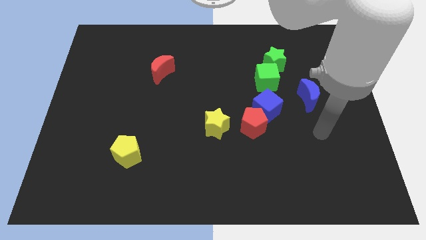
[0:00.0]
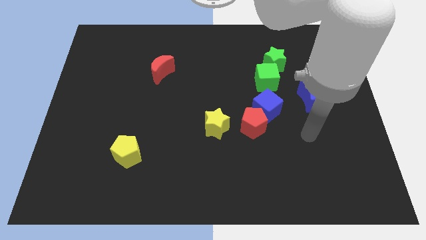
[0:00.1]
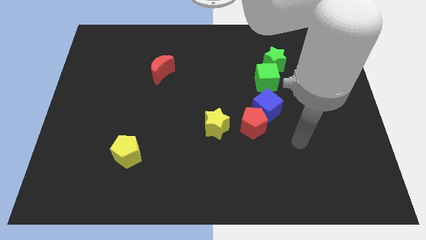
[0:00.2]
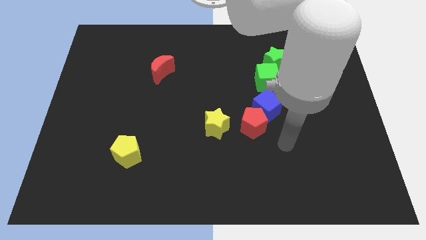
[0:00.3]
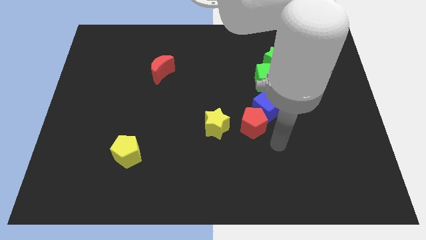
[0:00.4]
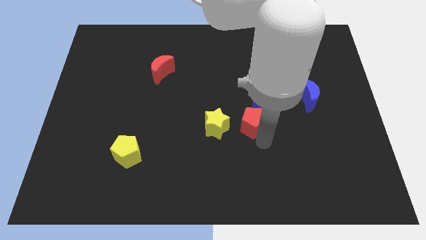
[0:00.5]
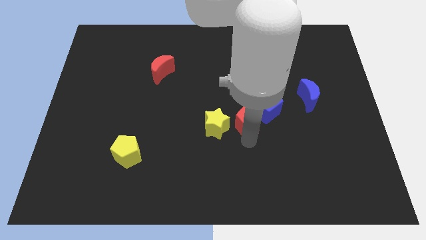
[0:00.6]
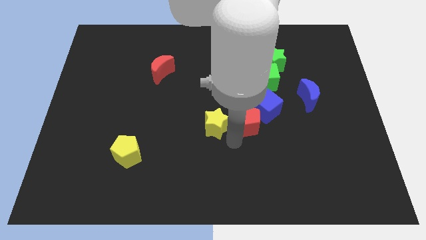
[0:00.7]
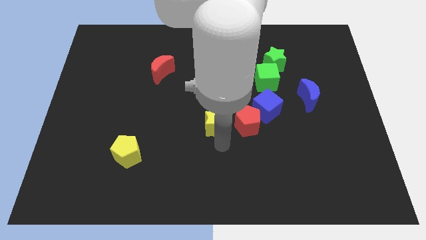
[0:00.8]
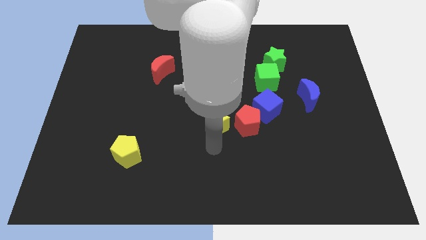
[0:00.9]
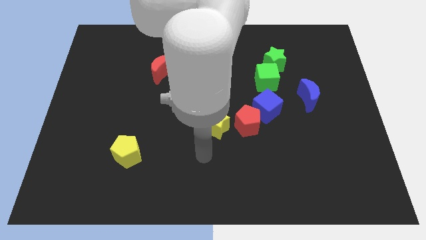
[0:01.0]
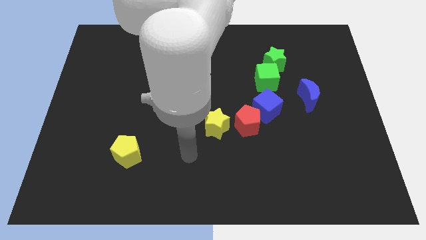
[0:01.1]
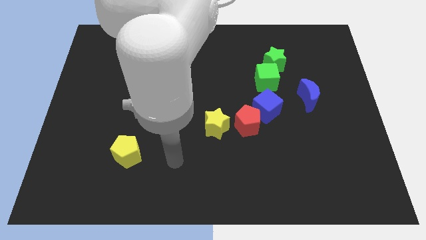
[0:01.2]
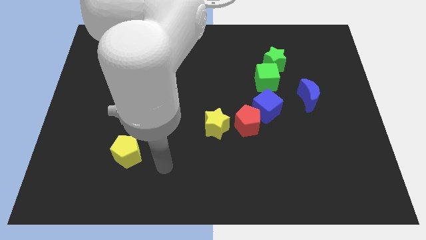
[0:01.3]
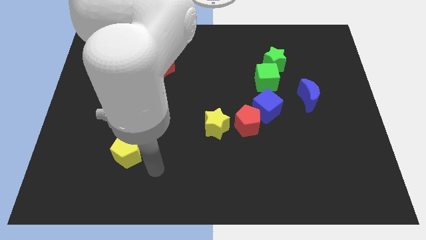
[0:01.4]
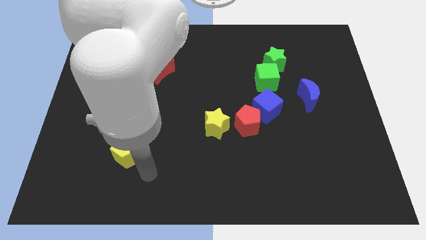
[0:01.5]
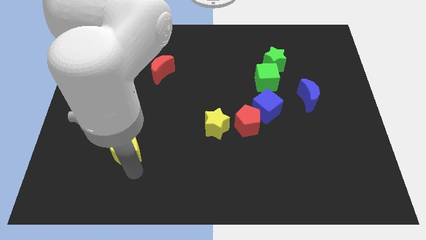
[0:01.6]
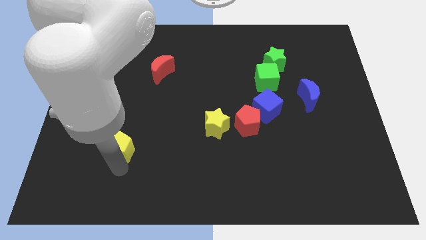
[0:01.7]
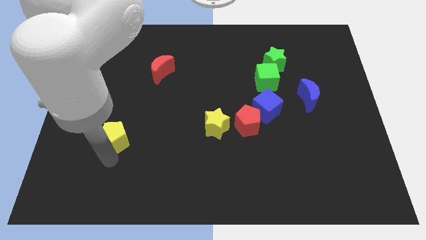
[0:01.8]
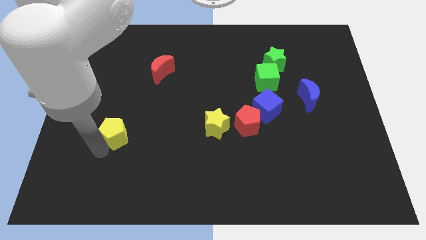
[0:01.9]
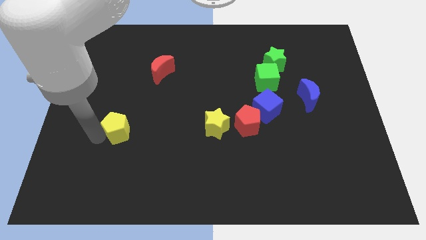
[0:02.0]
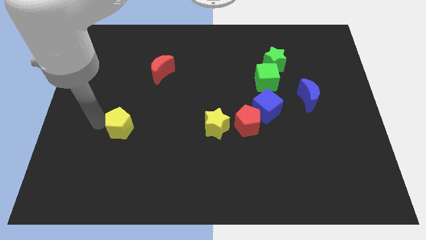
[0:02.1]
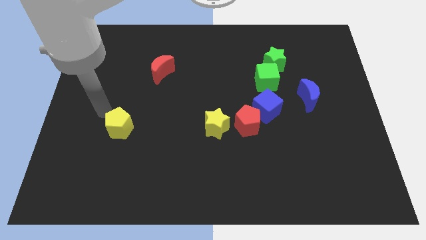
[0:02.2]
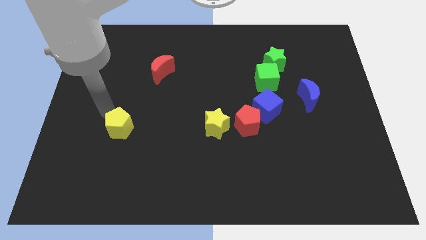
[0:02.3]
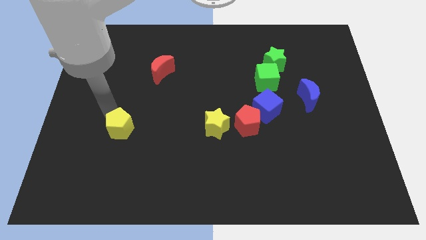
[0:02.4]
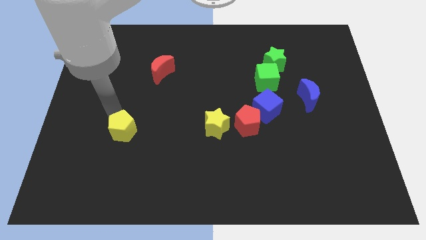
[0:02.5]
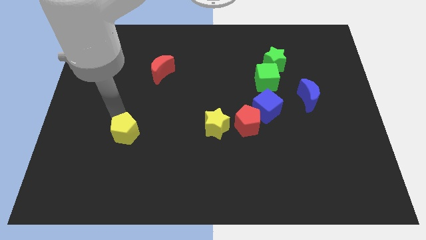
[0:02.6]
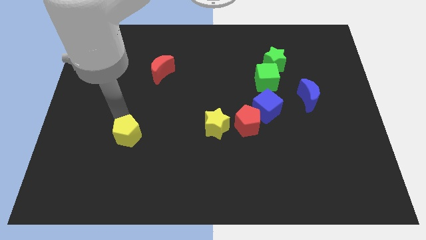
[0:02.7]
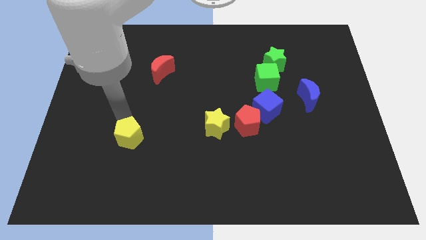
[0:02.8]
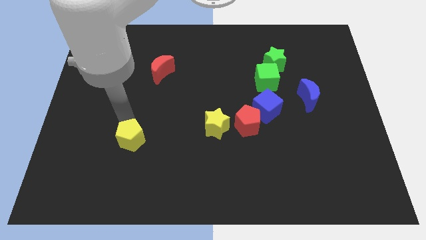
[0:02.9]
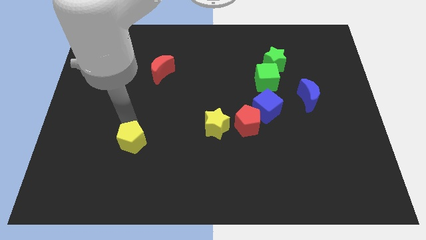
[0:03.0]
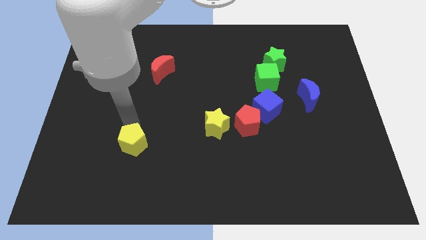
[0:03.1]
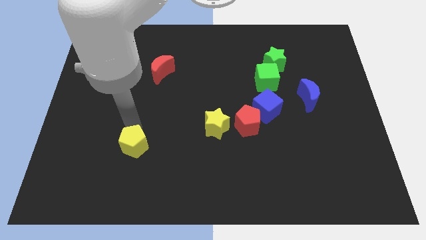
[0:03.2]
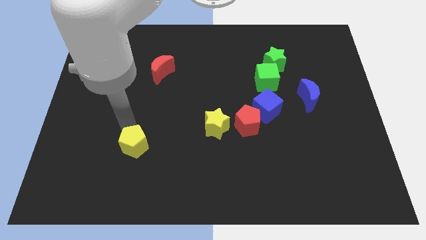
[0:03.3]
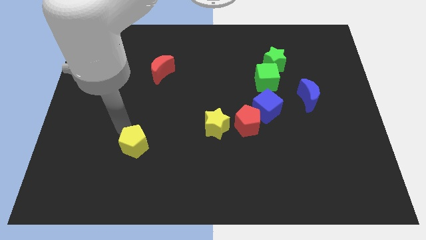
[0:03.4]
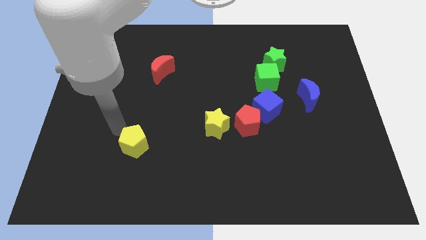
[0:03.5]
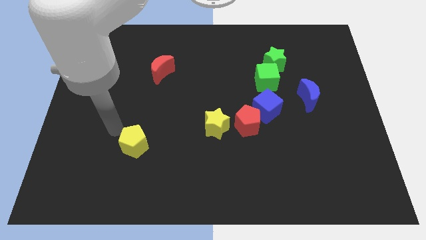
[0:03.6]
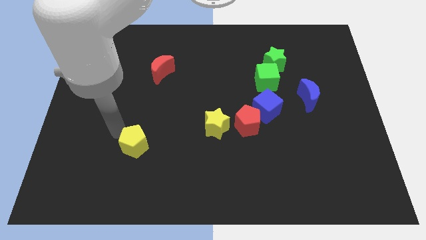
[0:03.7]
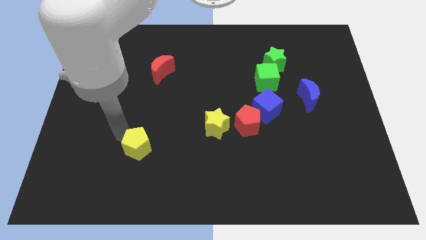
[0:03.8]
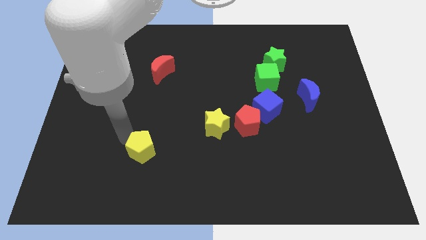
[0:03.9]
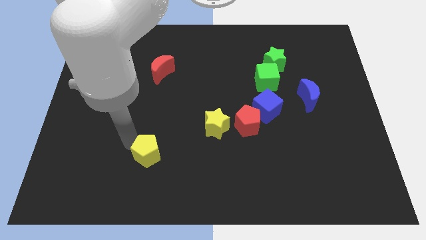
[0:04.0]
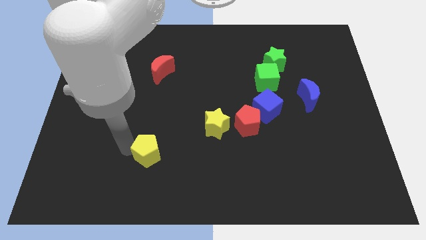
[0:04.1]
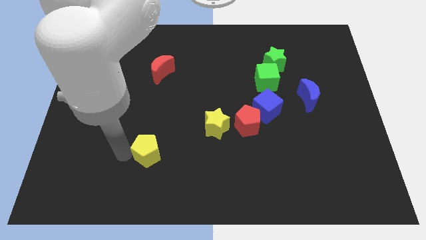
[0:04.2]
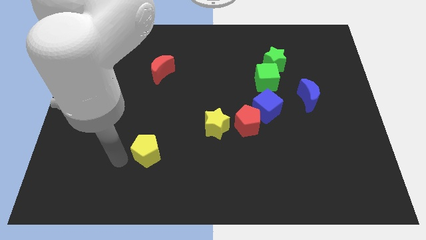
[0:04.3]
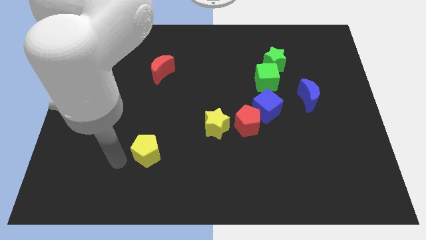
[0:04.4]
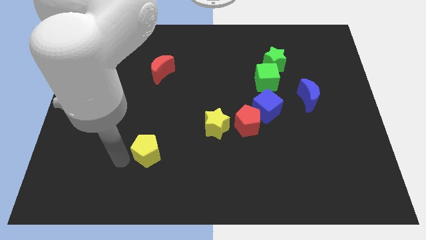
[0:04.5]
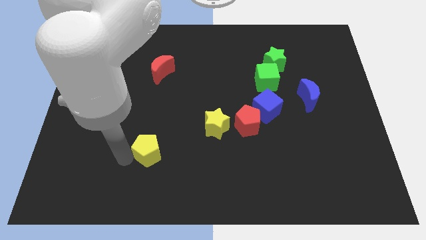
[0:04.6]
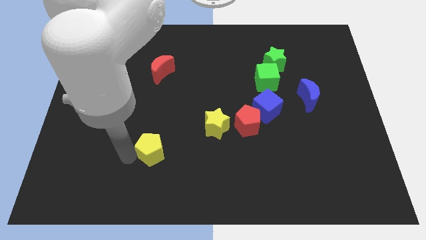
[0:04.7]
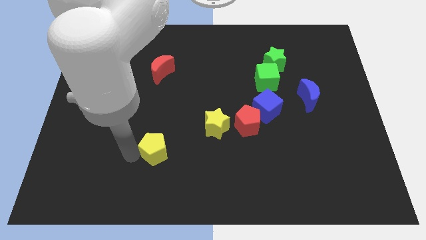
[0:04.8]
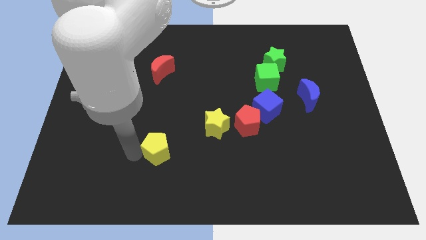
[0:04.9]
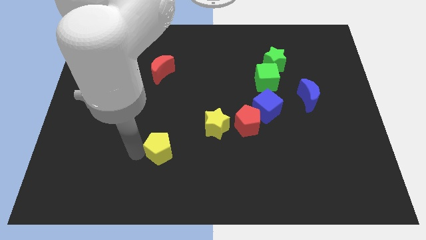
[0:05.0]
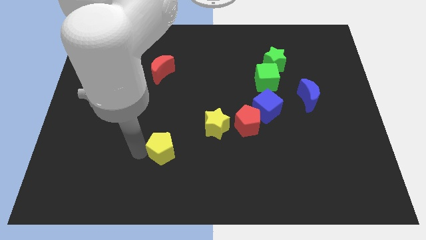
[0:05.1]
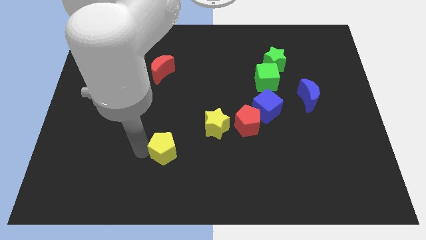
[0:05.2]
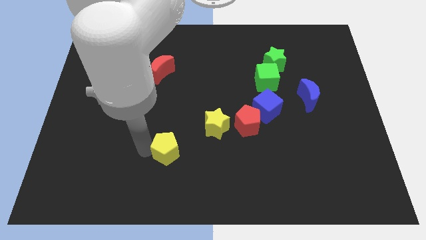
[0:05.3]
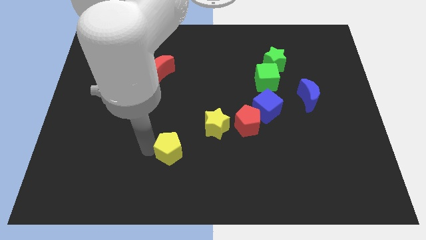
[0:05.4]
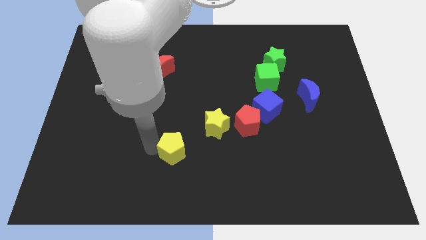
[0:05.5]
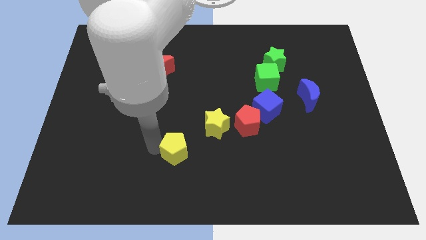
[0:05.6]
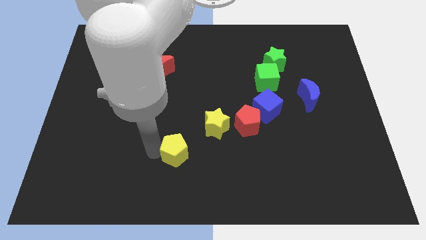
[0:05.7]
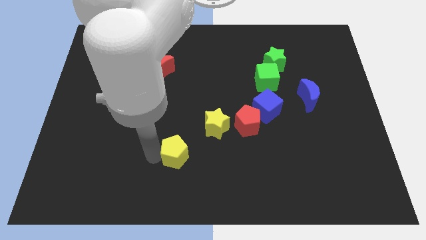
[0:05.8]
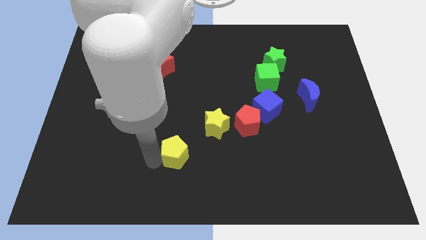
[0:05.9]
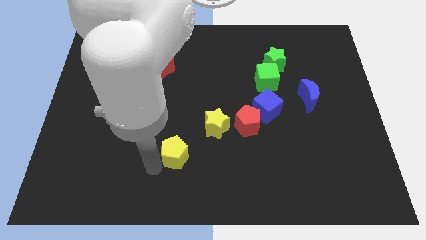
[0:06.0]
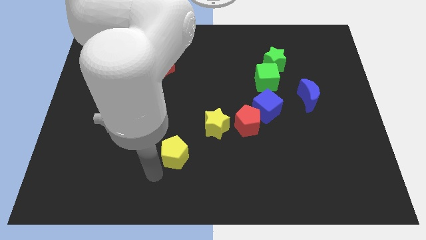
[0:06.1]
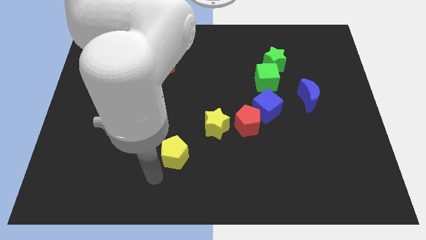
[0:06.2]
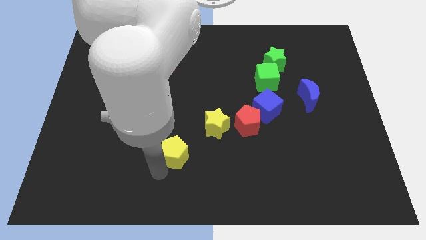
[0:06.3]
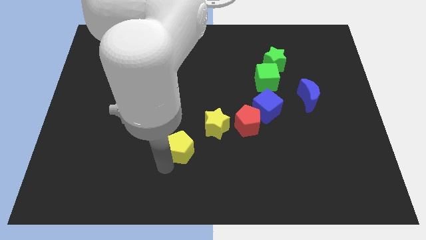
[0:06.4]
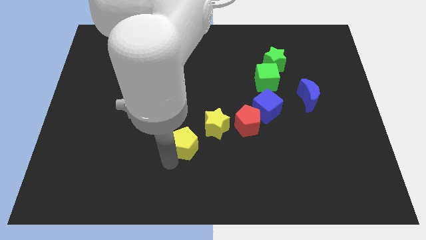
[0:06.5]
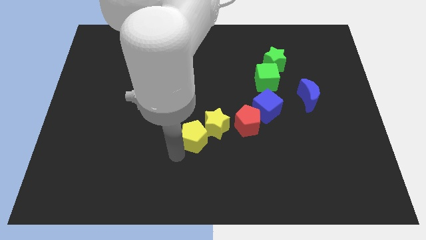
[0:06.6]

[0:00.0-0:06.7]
put the yellow pentagon towards the yellow star
